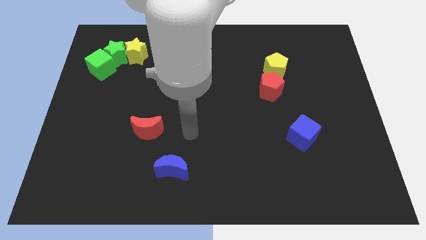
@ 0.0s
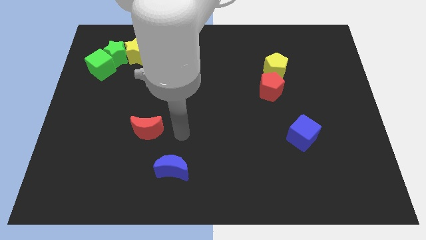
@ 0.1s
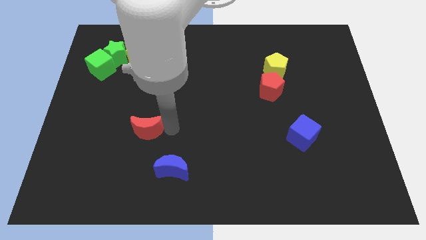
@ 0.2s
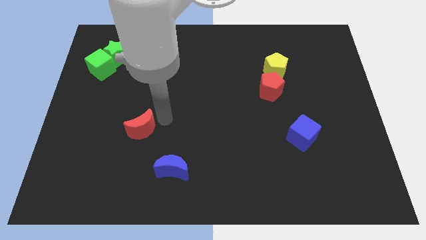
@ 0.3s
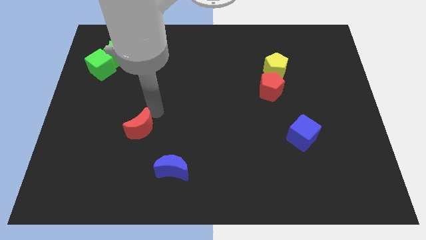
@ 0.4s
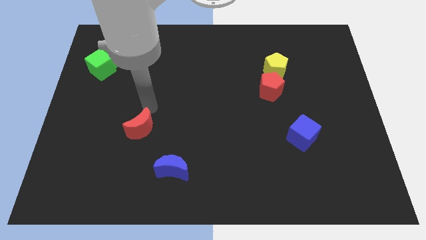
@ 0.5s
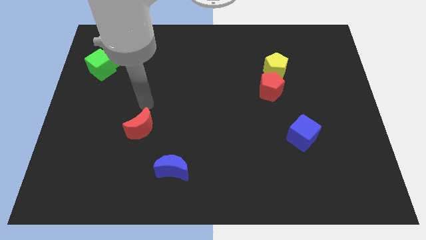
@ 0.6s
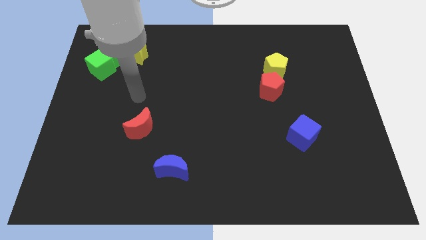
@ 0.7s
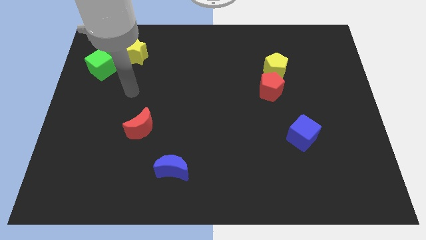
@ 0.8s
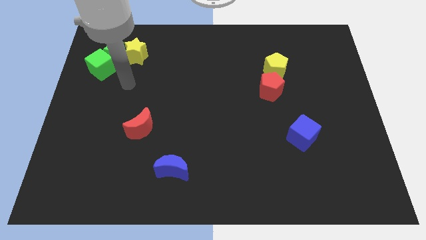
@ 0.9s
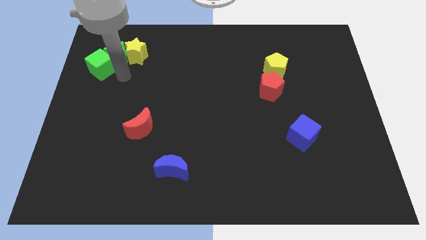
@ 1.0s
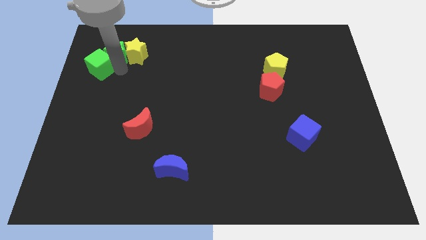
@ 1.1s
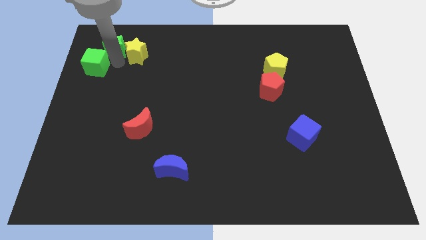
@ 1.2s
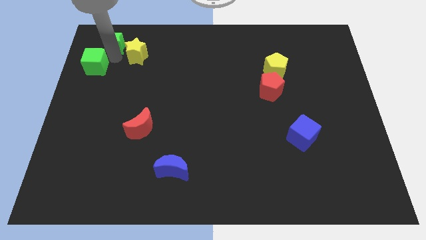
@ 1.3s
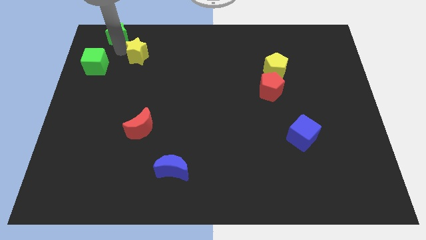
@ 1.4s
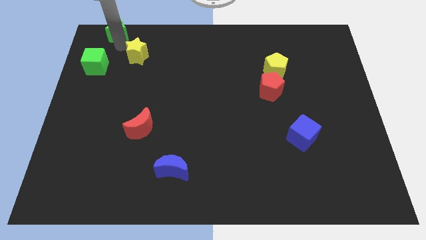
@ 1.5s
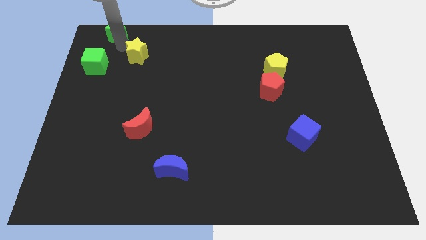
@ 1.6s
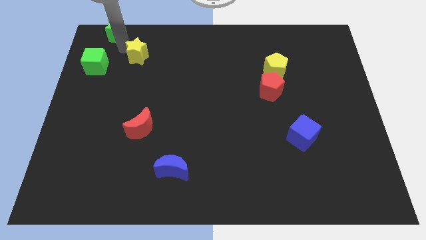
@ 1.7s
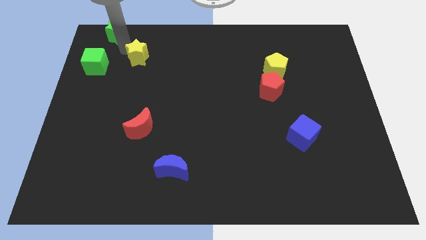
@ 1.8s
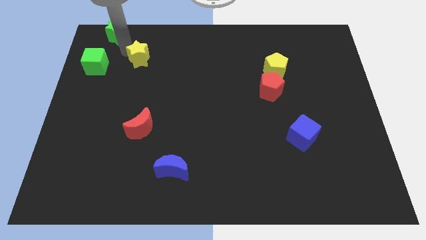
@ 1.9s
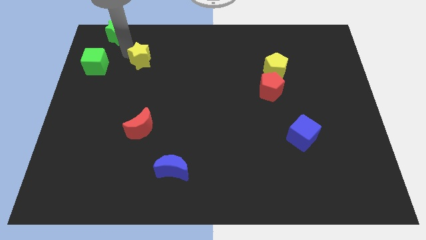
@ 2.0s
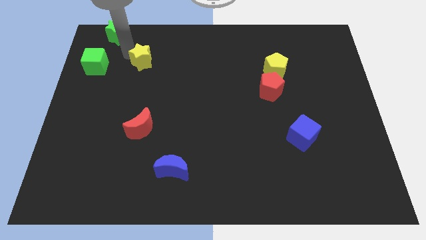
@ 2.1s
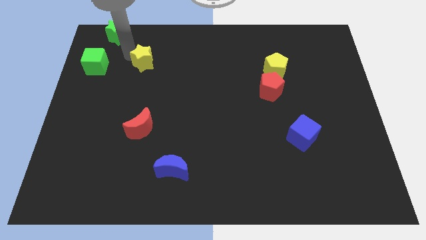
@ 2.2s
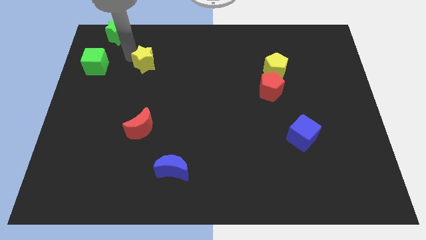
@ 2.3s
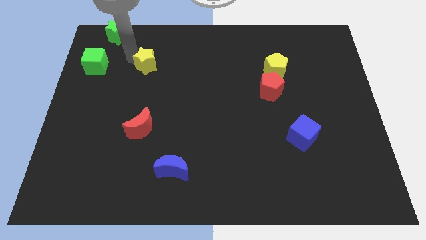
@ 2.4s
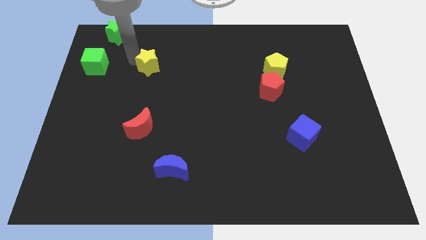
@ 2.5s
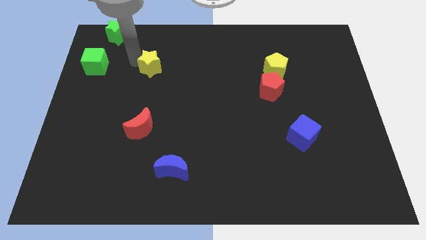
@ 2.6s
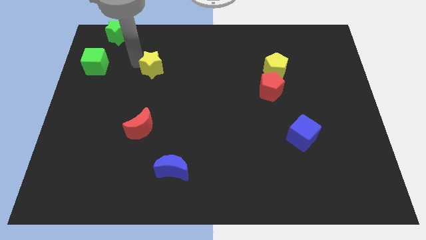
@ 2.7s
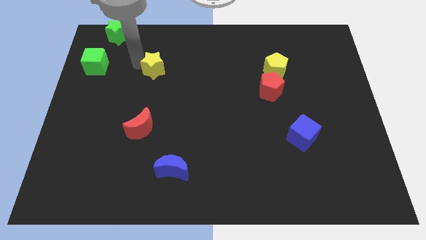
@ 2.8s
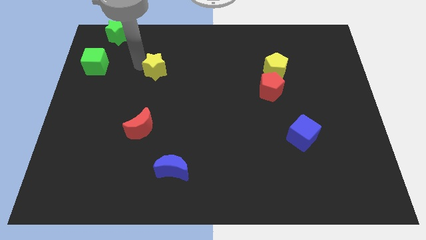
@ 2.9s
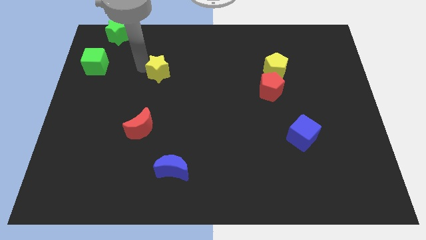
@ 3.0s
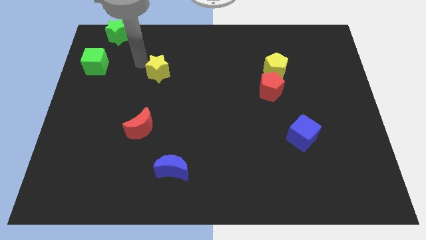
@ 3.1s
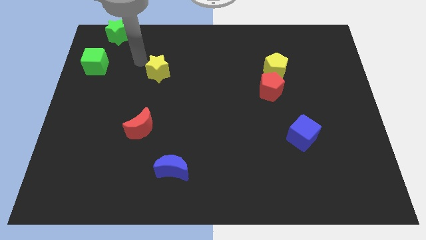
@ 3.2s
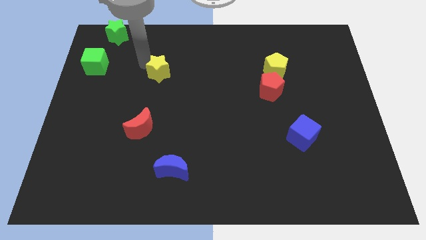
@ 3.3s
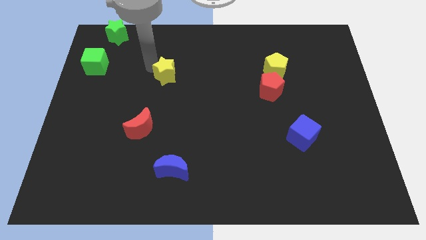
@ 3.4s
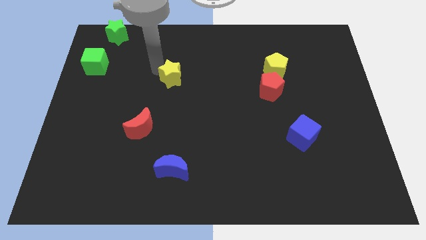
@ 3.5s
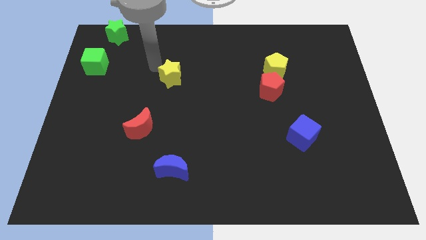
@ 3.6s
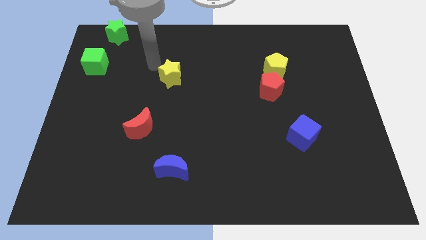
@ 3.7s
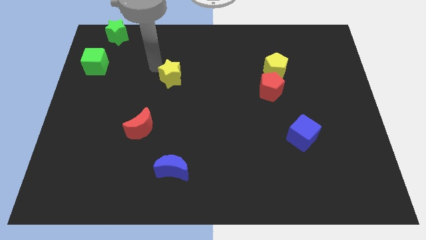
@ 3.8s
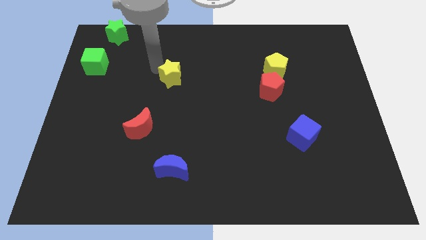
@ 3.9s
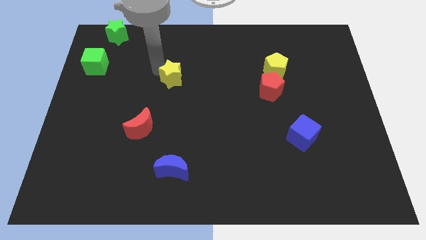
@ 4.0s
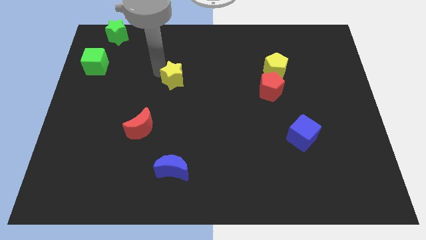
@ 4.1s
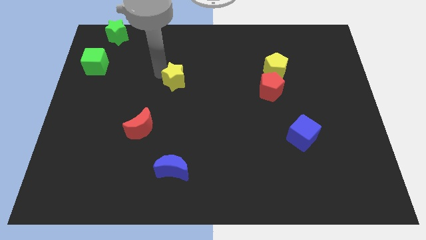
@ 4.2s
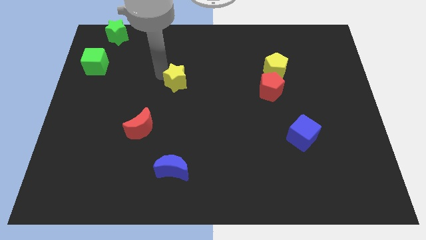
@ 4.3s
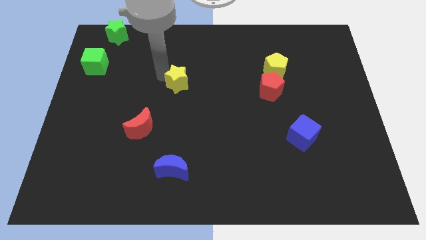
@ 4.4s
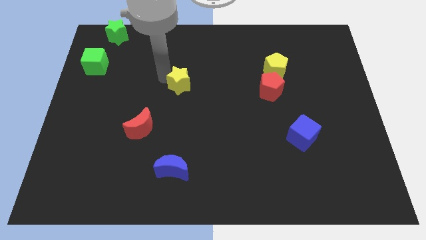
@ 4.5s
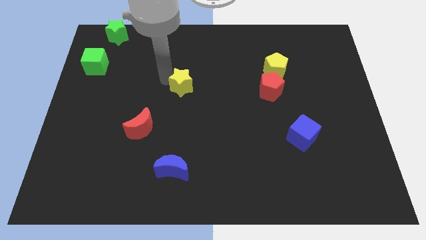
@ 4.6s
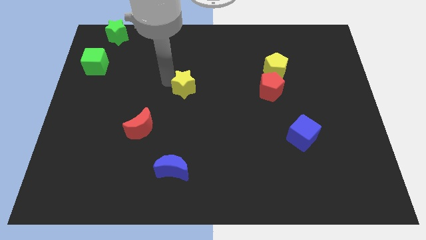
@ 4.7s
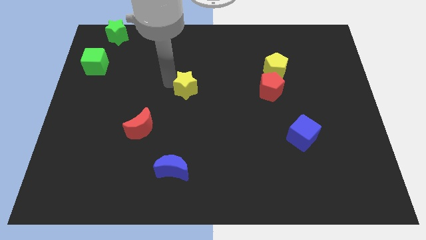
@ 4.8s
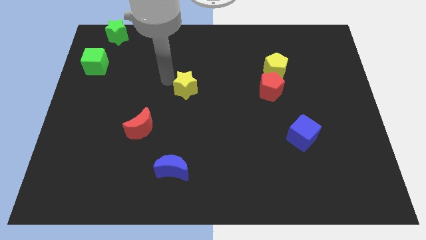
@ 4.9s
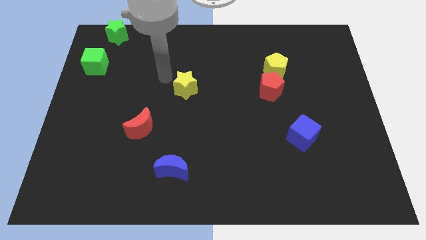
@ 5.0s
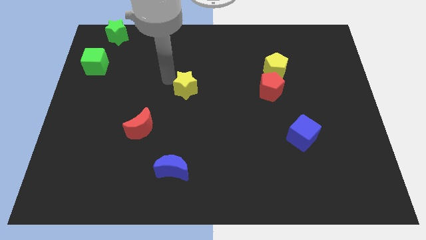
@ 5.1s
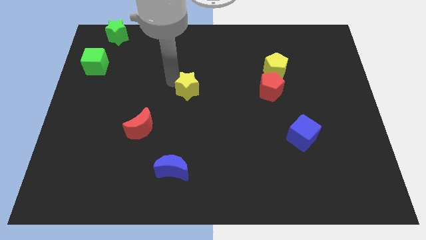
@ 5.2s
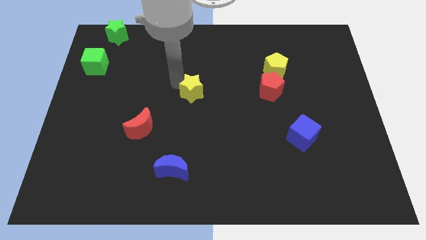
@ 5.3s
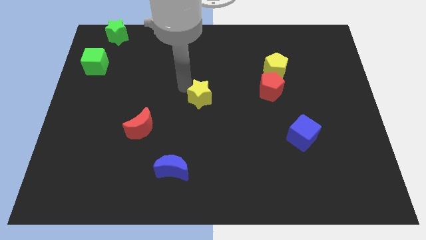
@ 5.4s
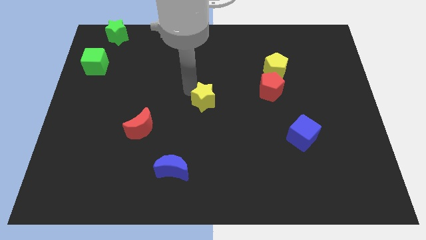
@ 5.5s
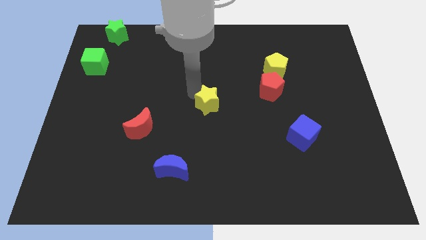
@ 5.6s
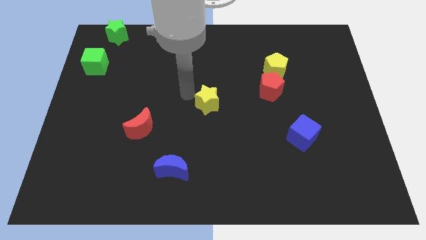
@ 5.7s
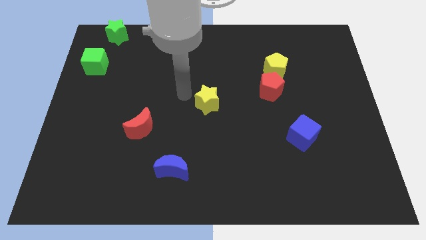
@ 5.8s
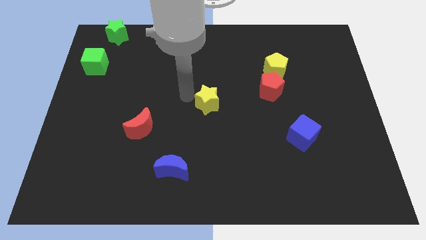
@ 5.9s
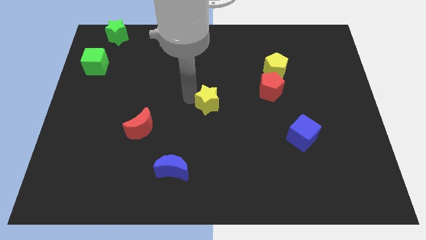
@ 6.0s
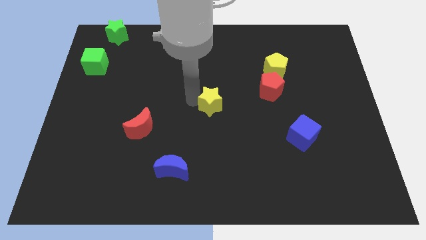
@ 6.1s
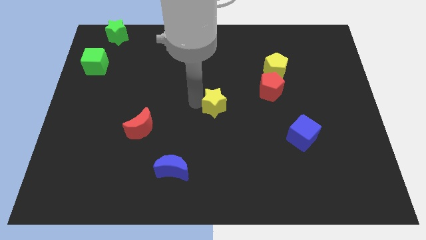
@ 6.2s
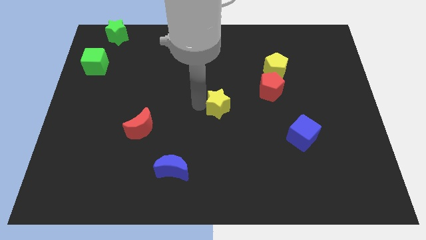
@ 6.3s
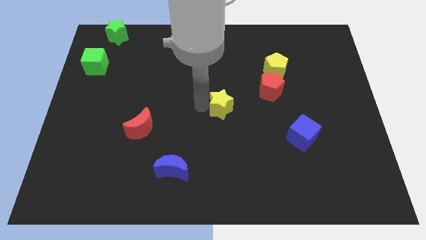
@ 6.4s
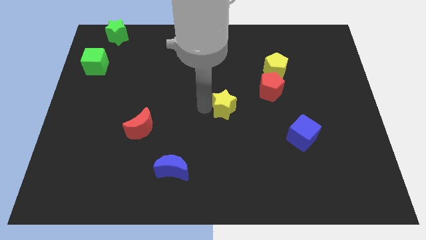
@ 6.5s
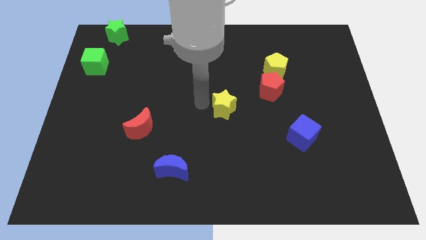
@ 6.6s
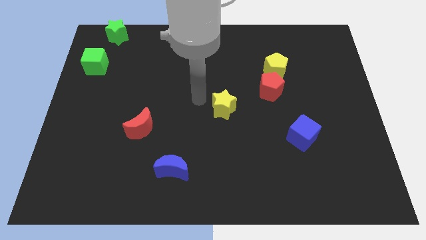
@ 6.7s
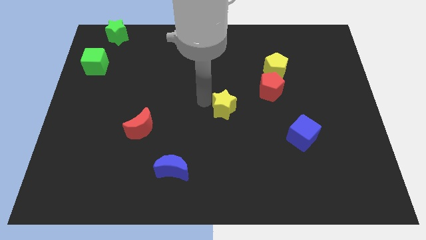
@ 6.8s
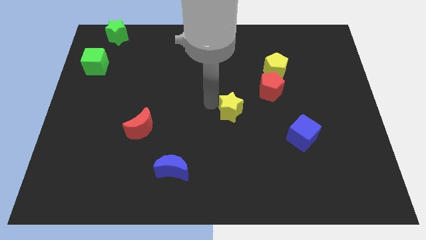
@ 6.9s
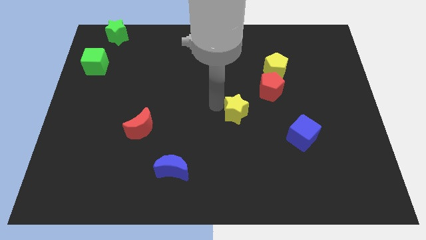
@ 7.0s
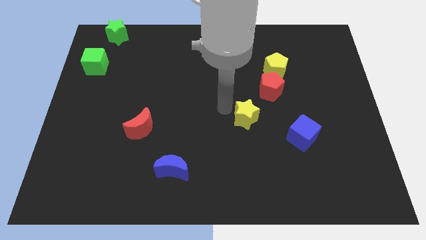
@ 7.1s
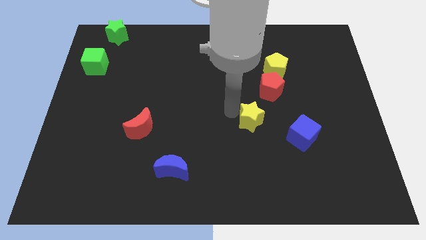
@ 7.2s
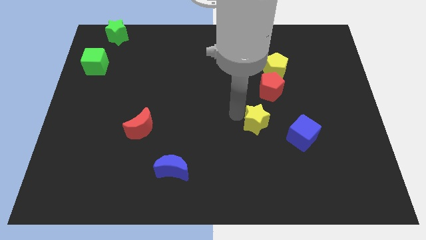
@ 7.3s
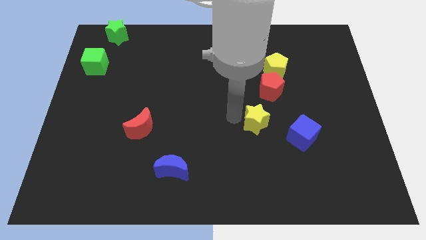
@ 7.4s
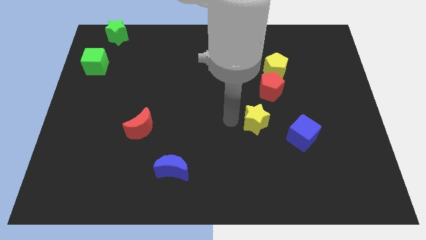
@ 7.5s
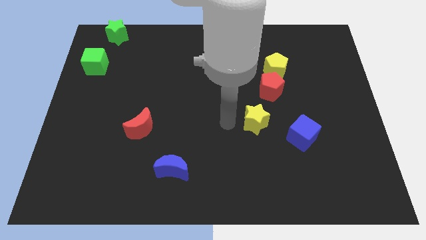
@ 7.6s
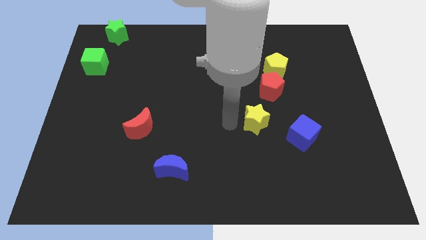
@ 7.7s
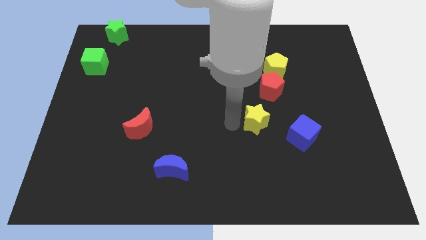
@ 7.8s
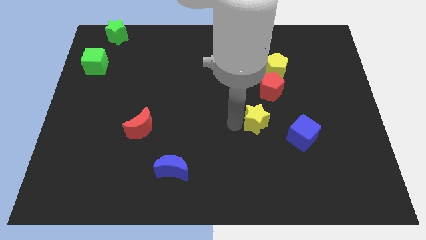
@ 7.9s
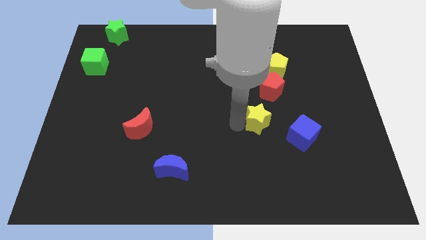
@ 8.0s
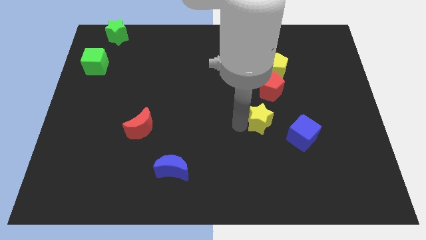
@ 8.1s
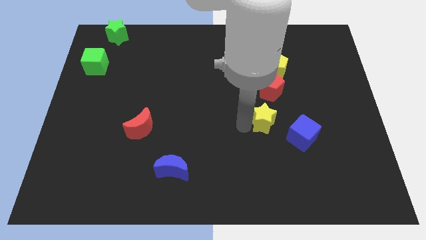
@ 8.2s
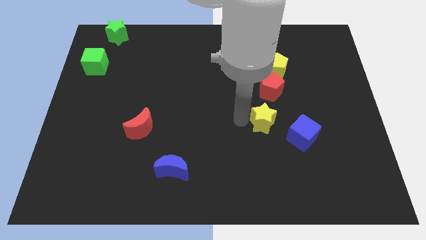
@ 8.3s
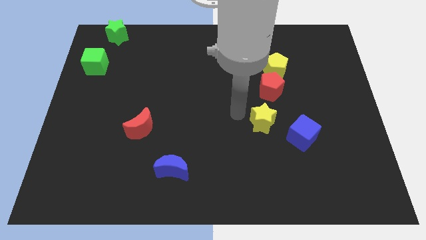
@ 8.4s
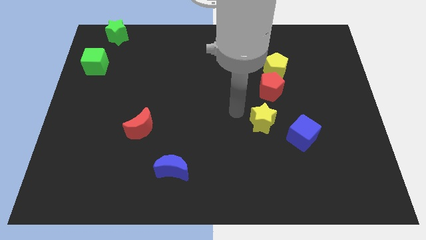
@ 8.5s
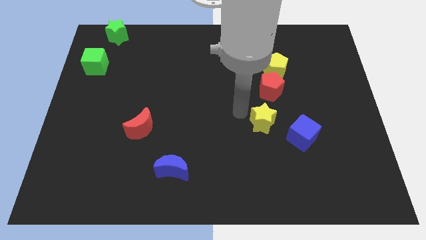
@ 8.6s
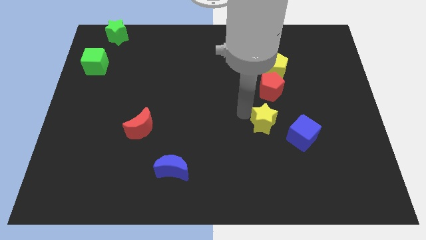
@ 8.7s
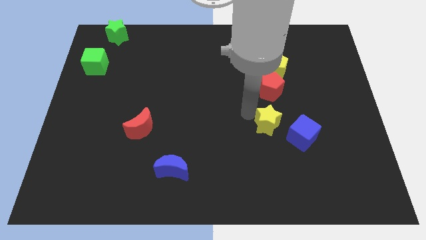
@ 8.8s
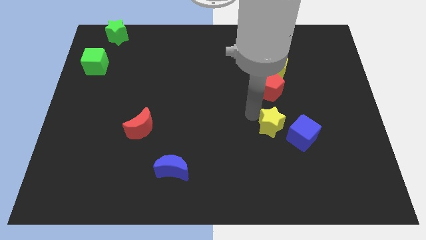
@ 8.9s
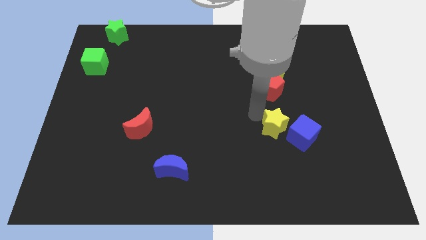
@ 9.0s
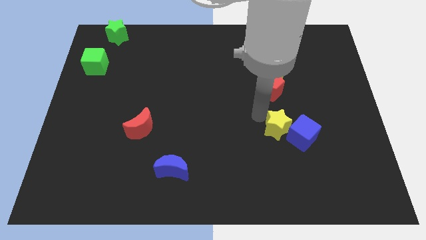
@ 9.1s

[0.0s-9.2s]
put the yellow star to the blue cube
